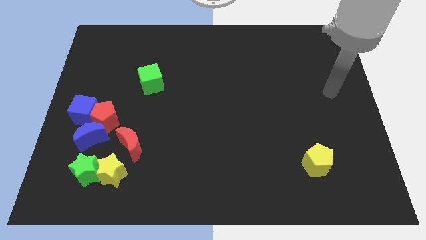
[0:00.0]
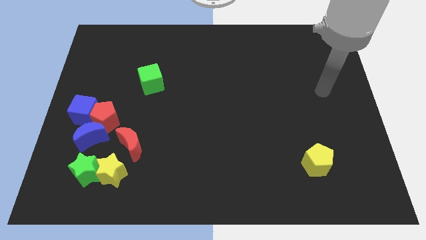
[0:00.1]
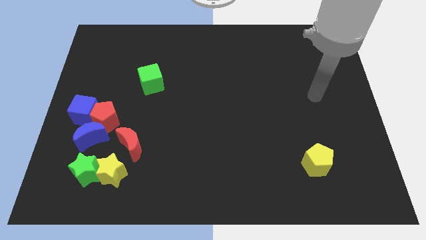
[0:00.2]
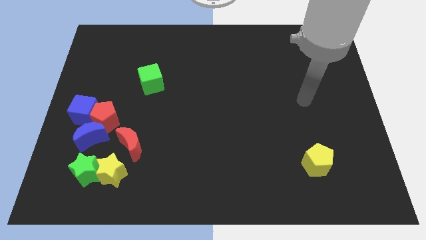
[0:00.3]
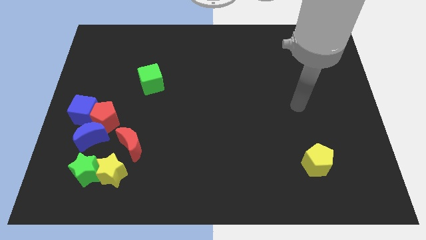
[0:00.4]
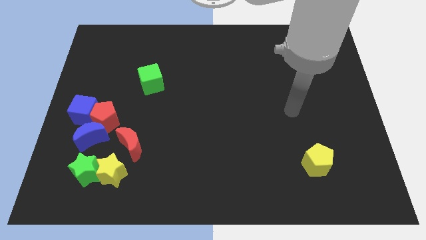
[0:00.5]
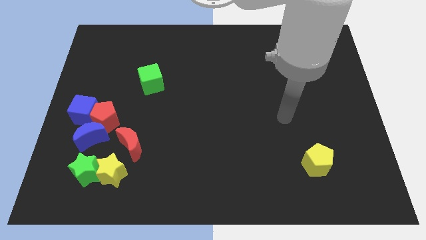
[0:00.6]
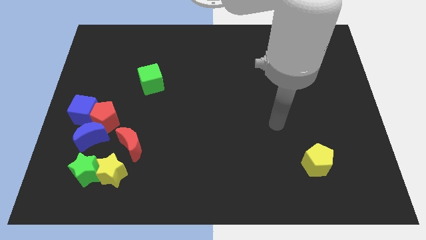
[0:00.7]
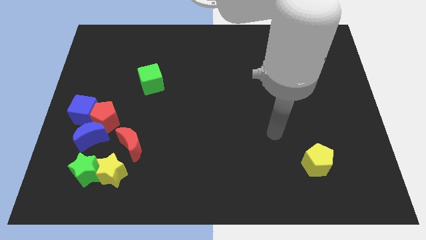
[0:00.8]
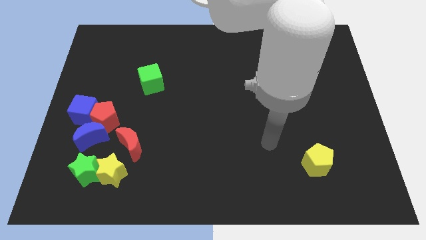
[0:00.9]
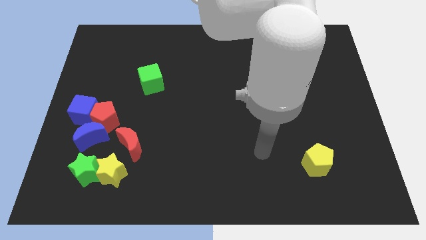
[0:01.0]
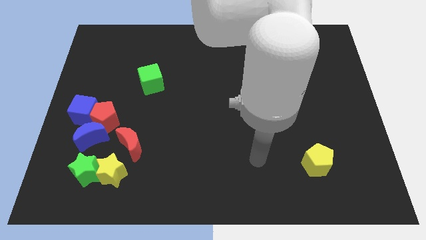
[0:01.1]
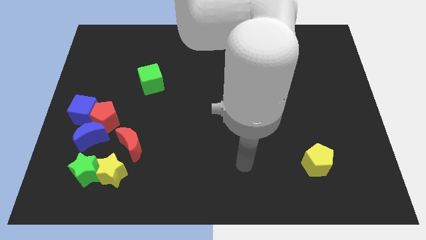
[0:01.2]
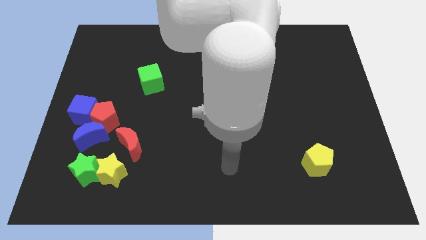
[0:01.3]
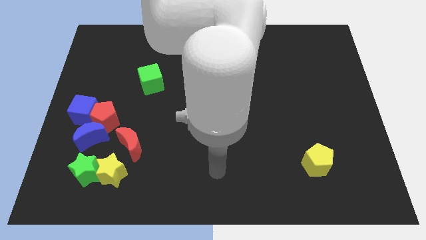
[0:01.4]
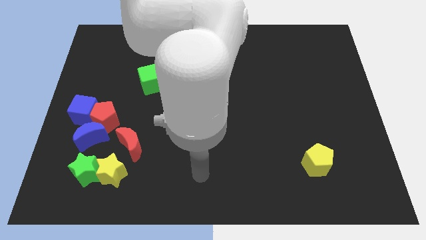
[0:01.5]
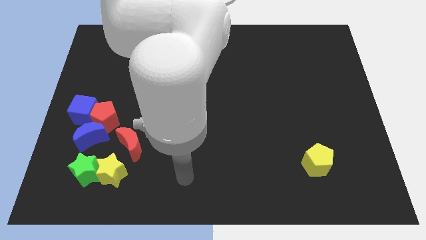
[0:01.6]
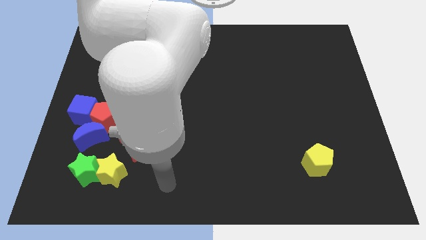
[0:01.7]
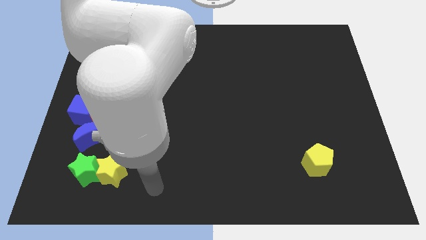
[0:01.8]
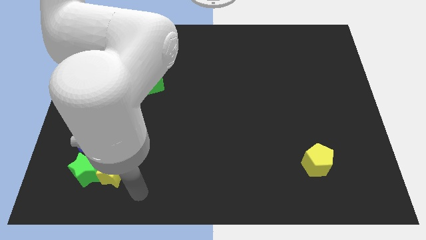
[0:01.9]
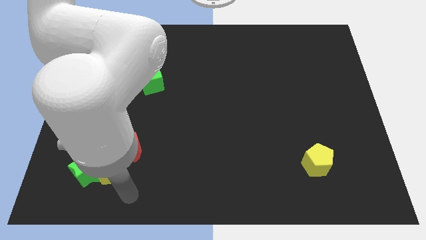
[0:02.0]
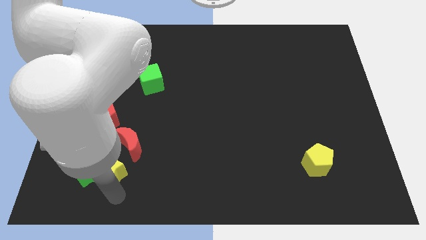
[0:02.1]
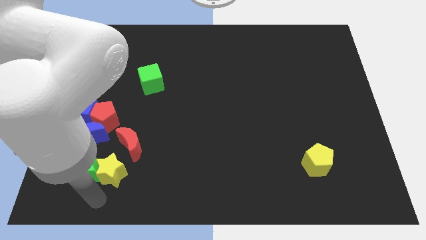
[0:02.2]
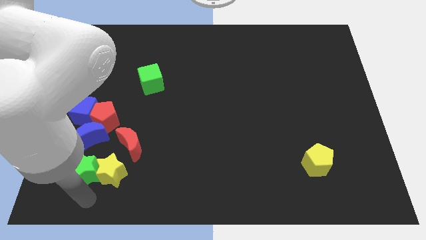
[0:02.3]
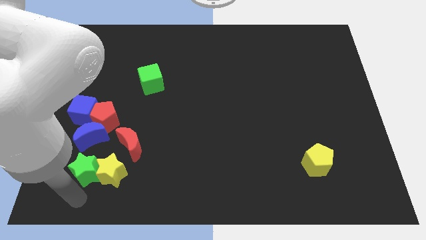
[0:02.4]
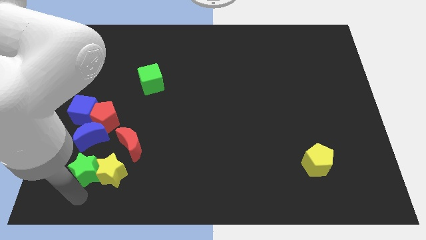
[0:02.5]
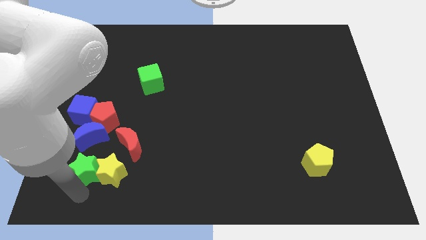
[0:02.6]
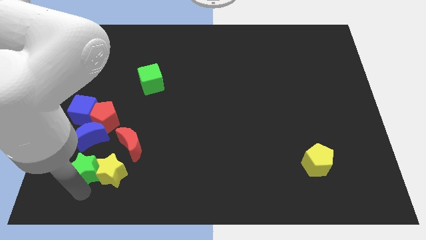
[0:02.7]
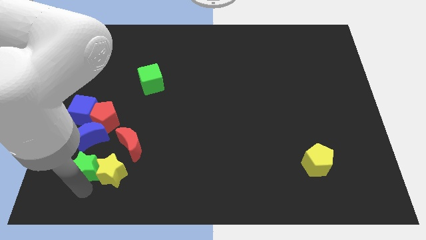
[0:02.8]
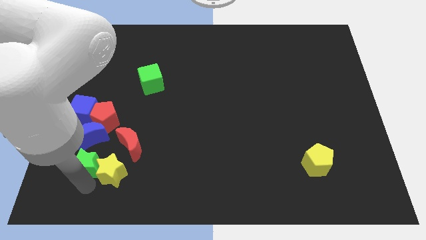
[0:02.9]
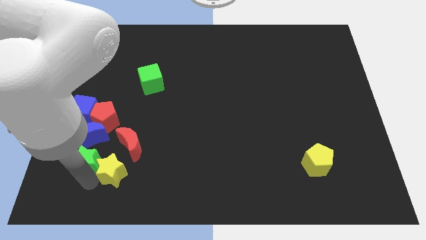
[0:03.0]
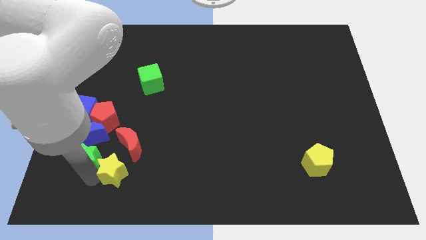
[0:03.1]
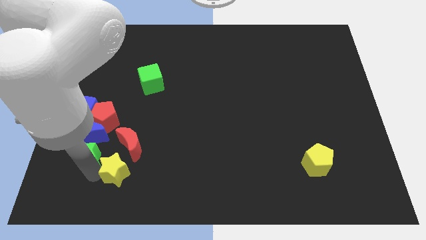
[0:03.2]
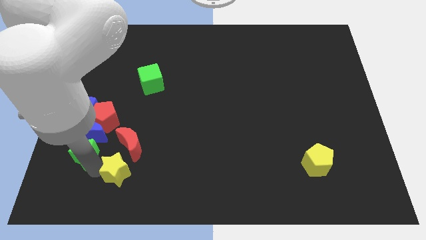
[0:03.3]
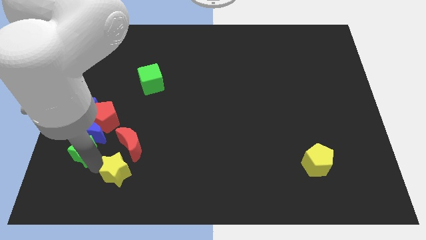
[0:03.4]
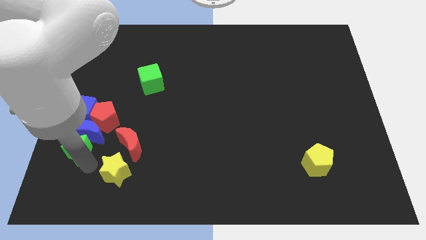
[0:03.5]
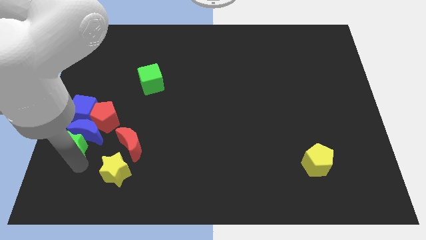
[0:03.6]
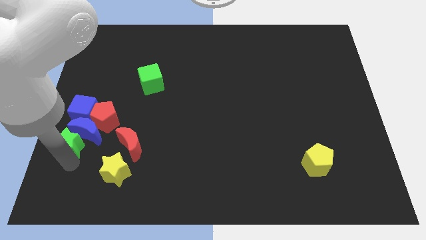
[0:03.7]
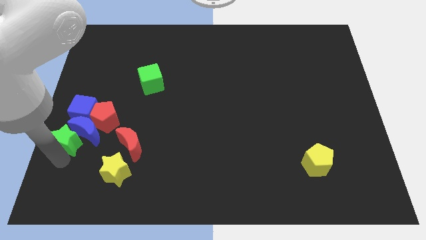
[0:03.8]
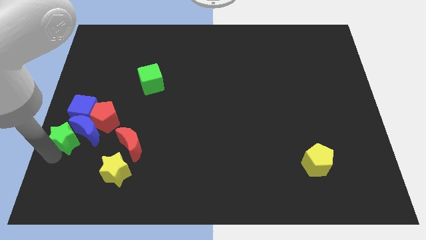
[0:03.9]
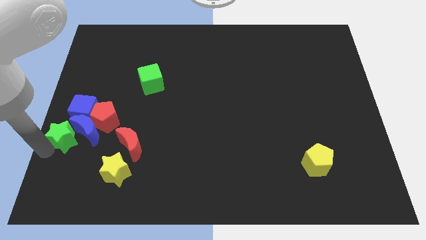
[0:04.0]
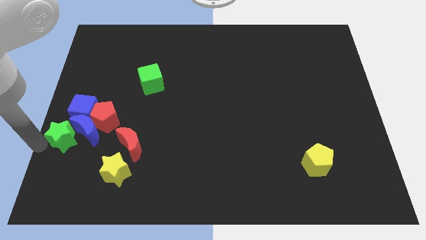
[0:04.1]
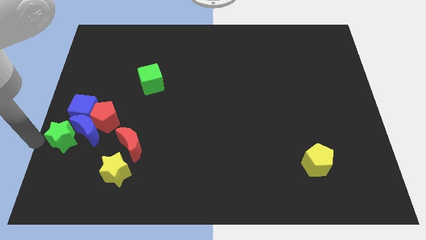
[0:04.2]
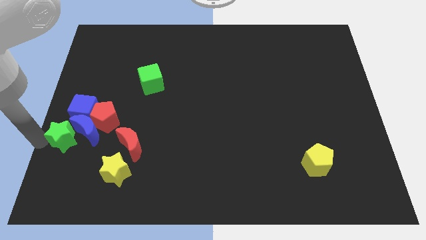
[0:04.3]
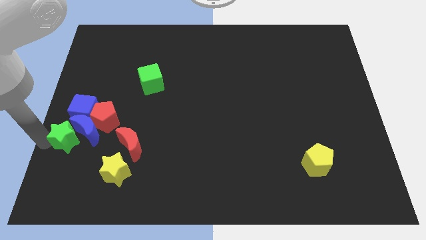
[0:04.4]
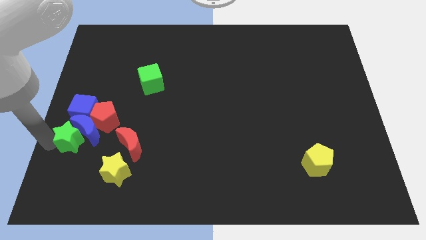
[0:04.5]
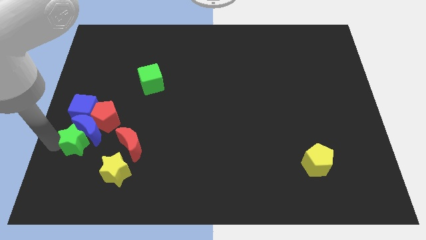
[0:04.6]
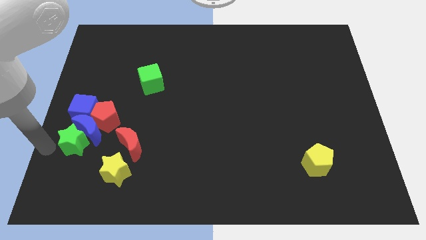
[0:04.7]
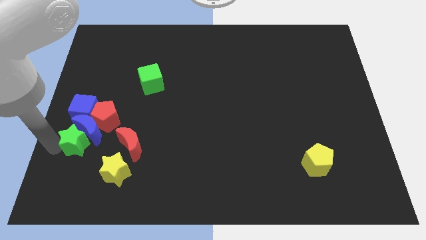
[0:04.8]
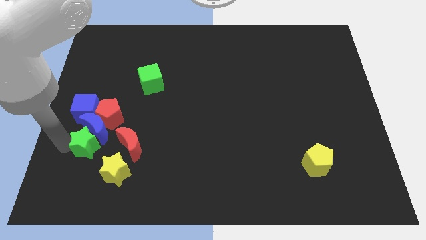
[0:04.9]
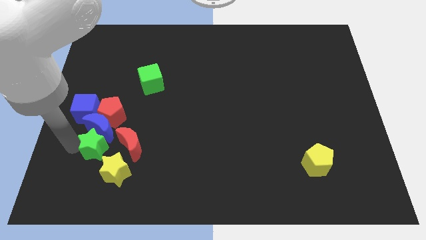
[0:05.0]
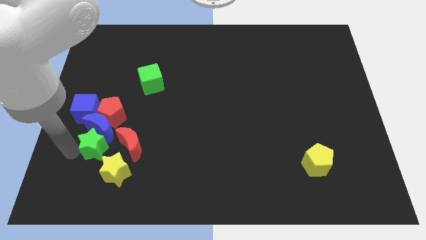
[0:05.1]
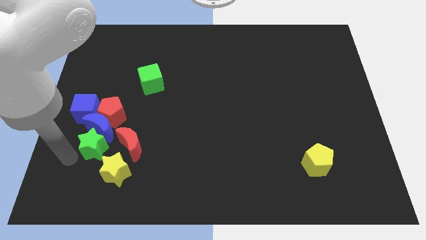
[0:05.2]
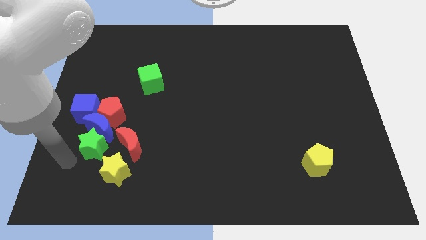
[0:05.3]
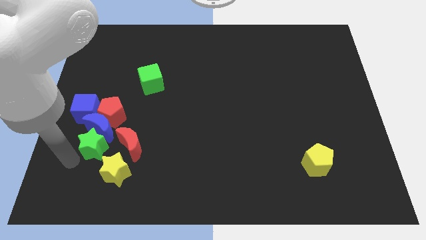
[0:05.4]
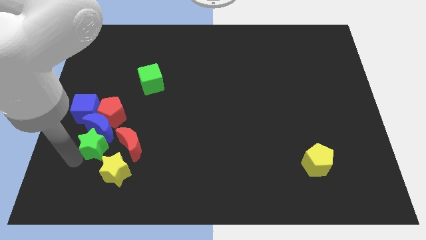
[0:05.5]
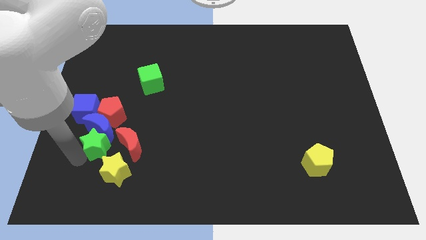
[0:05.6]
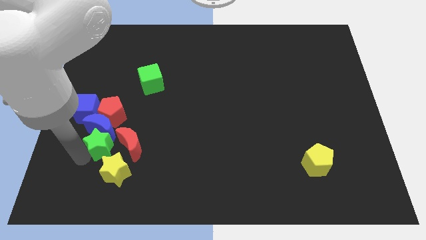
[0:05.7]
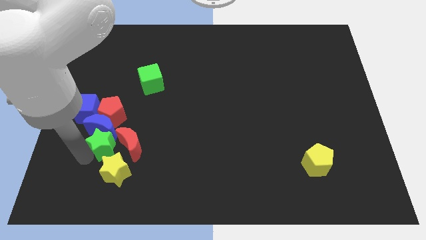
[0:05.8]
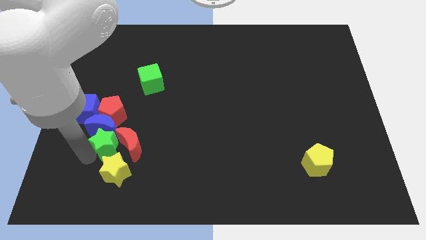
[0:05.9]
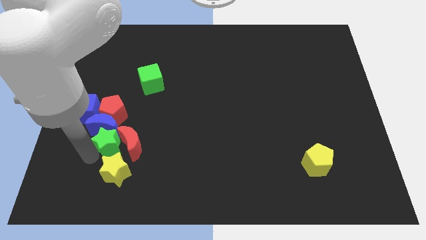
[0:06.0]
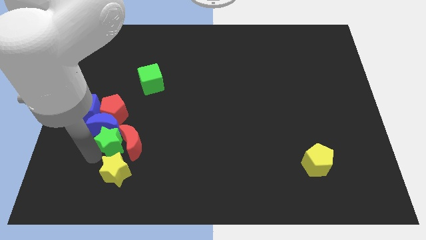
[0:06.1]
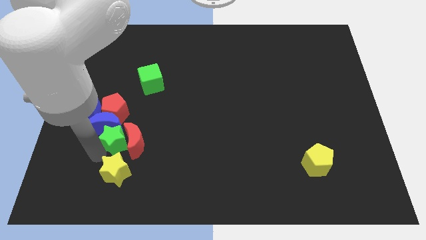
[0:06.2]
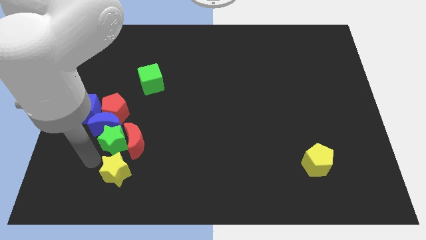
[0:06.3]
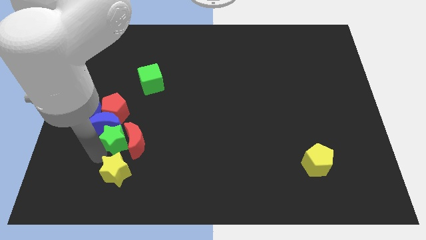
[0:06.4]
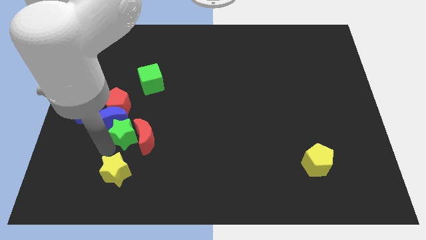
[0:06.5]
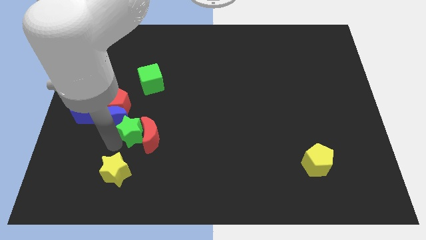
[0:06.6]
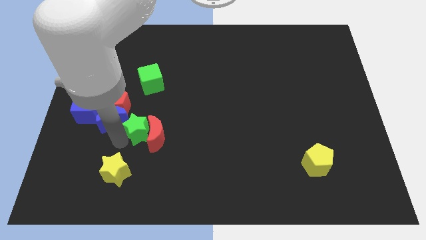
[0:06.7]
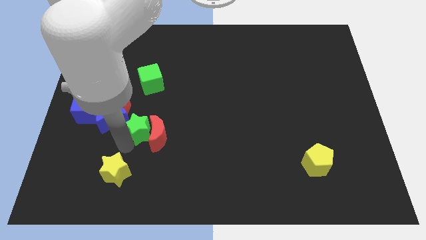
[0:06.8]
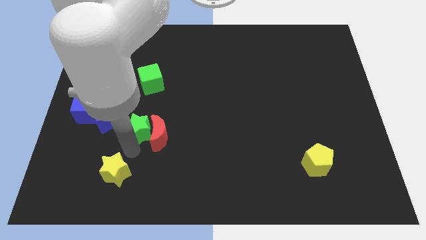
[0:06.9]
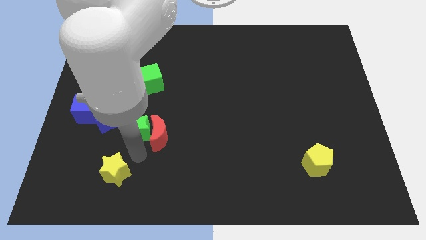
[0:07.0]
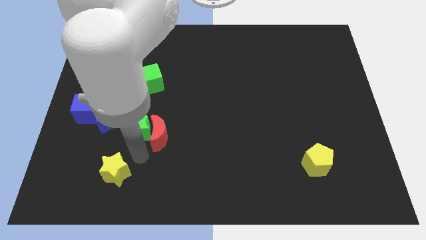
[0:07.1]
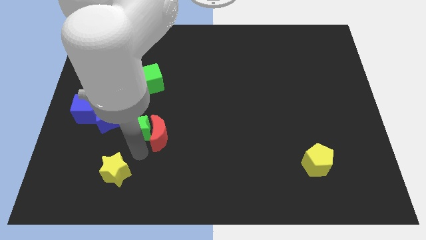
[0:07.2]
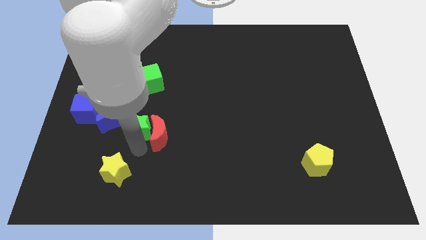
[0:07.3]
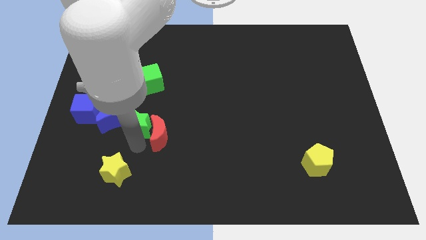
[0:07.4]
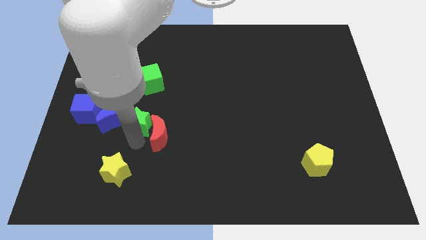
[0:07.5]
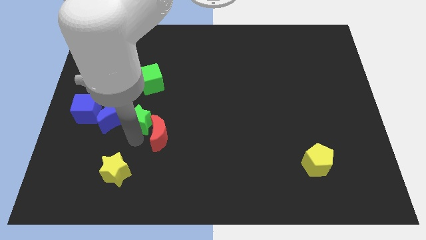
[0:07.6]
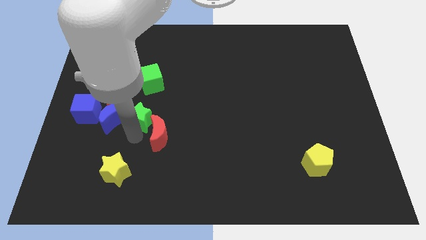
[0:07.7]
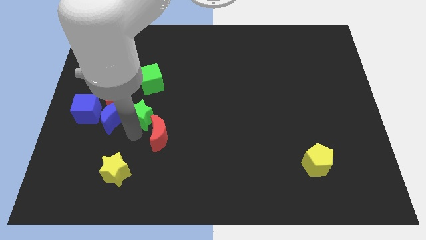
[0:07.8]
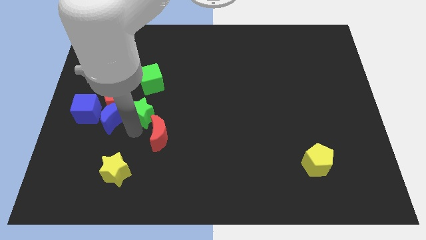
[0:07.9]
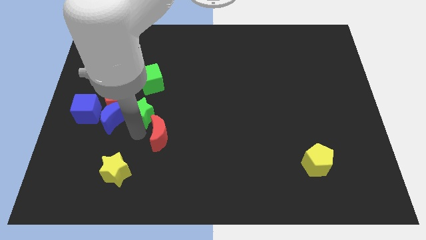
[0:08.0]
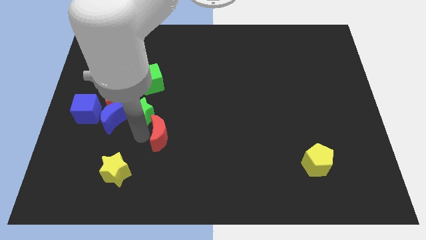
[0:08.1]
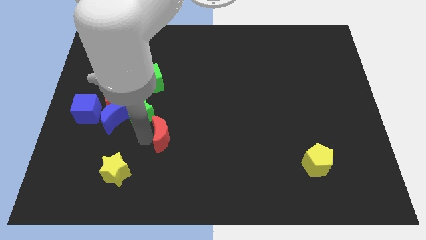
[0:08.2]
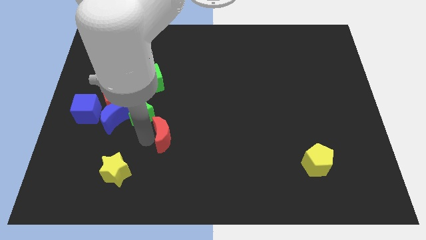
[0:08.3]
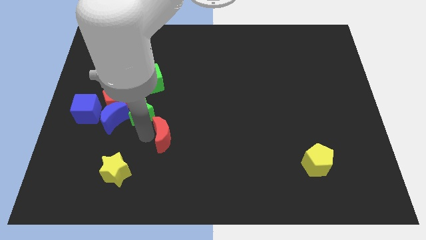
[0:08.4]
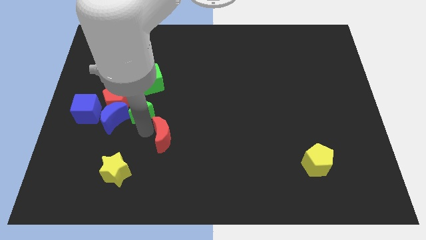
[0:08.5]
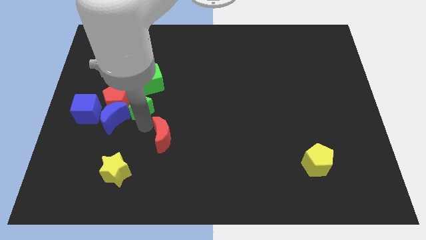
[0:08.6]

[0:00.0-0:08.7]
put the green star diagonally down and to the left of the green cube
